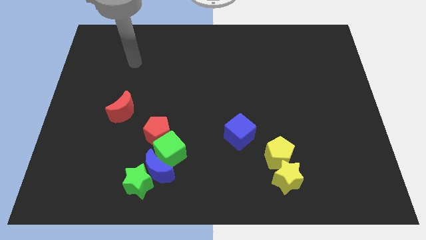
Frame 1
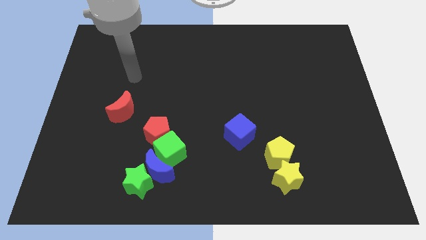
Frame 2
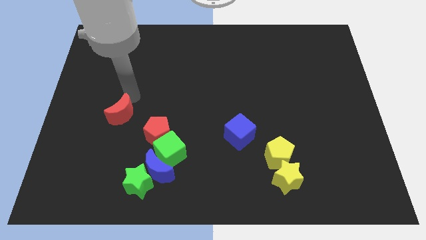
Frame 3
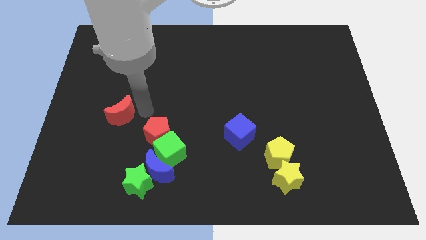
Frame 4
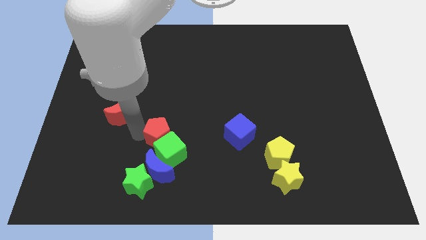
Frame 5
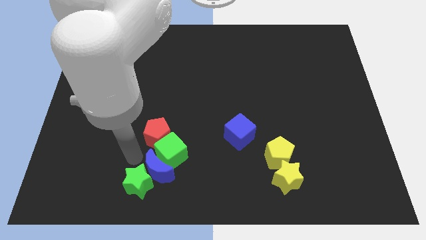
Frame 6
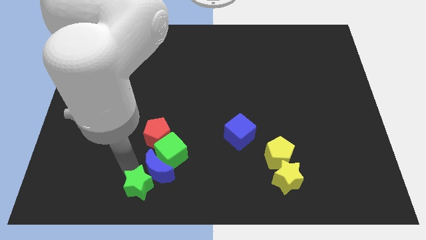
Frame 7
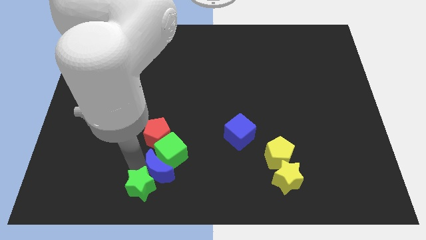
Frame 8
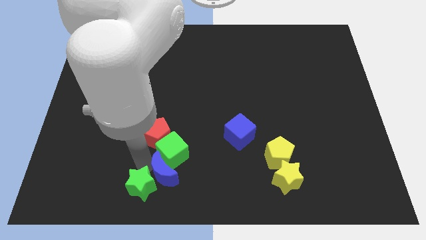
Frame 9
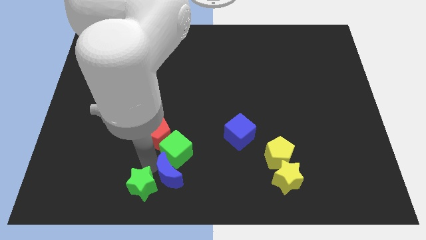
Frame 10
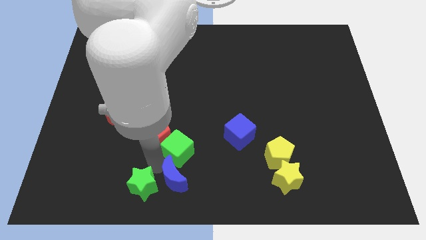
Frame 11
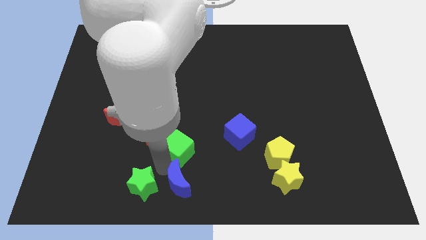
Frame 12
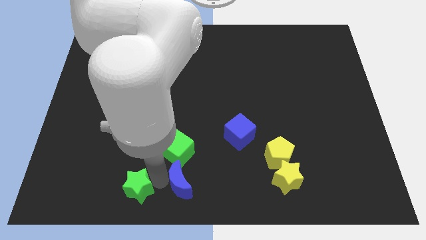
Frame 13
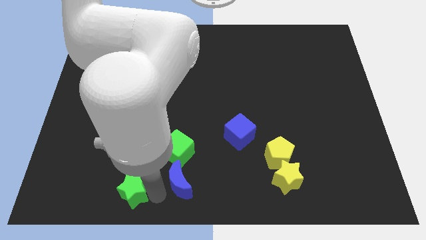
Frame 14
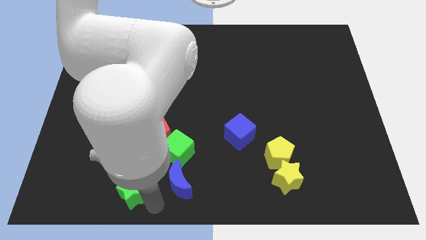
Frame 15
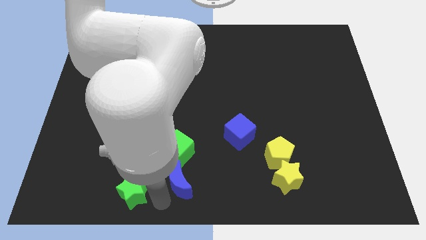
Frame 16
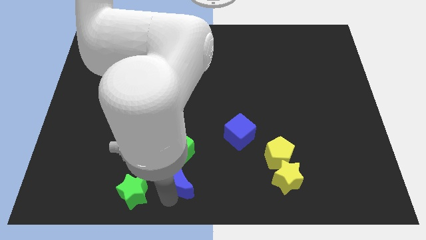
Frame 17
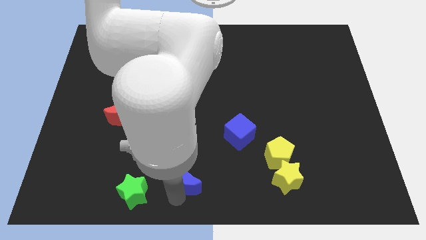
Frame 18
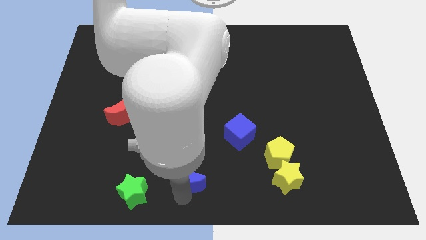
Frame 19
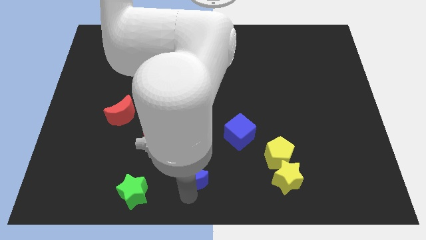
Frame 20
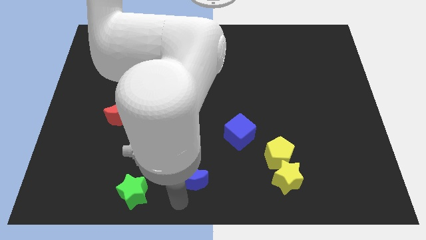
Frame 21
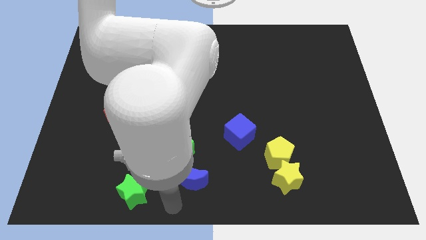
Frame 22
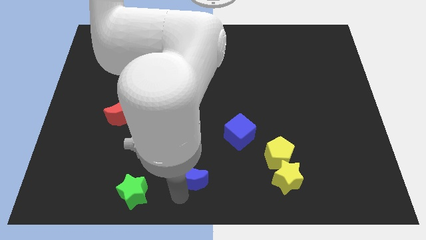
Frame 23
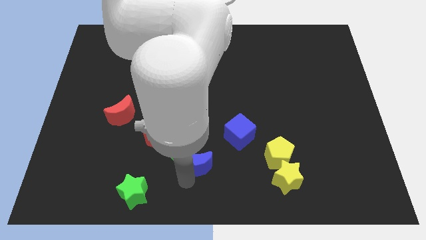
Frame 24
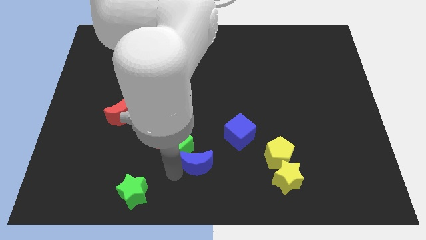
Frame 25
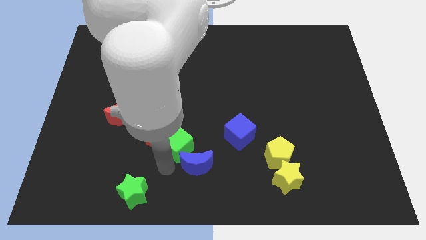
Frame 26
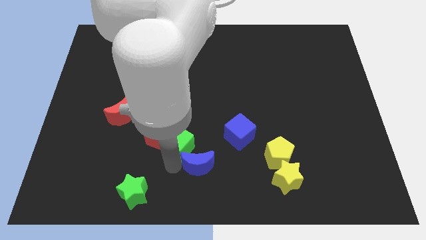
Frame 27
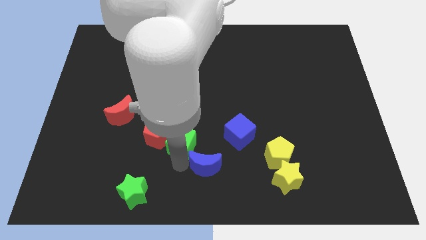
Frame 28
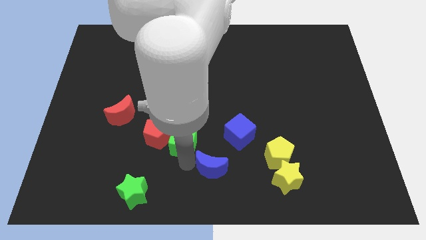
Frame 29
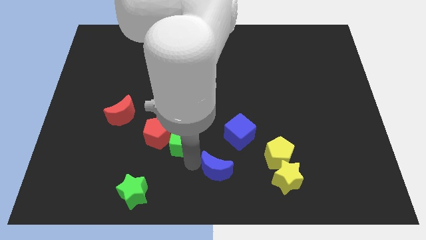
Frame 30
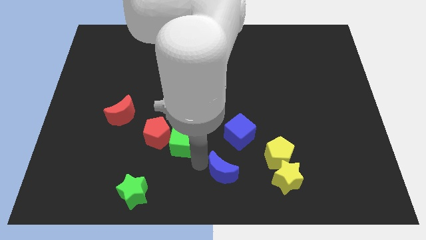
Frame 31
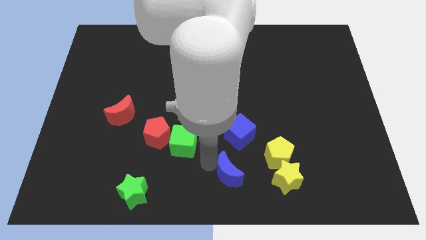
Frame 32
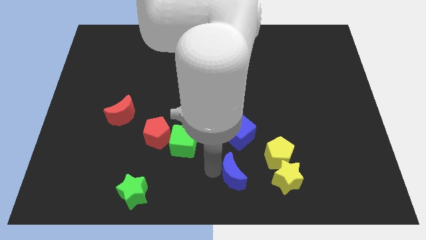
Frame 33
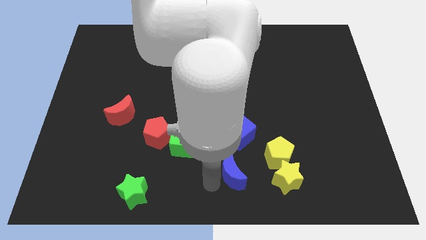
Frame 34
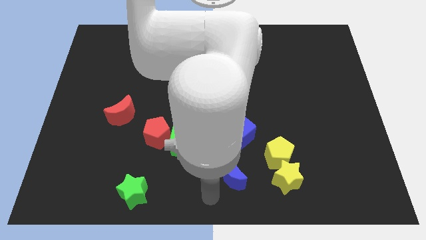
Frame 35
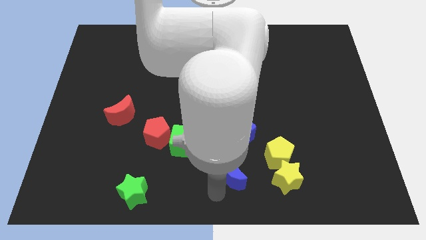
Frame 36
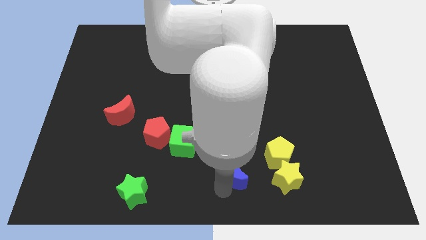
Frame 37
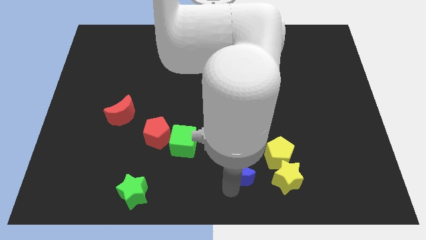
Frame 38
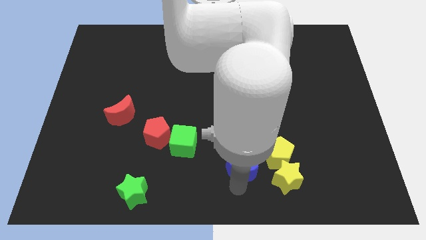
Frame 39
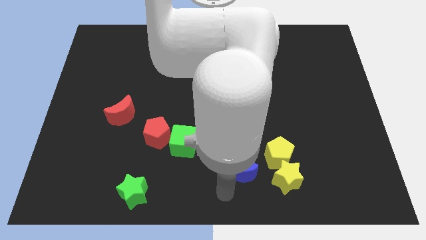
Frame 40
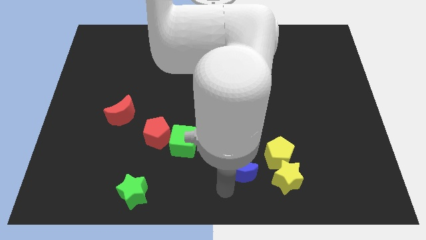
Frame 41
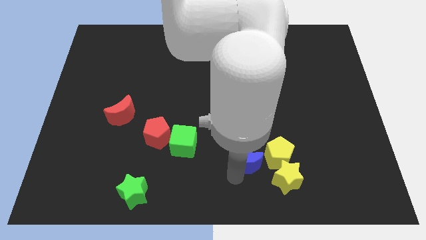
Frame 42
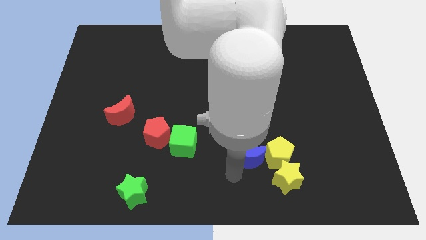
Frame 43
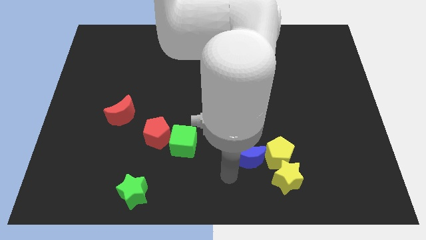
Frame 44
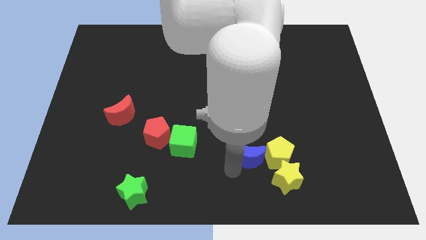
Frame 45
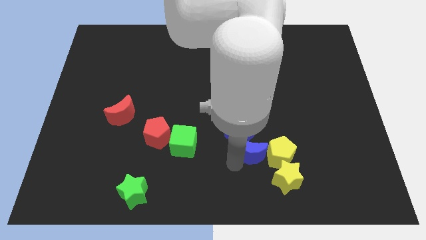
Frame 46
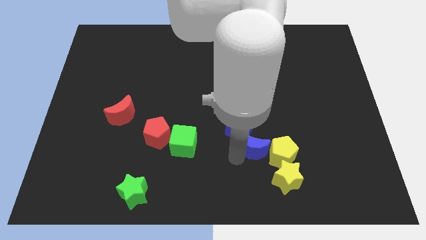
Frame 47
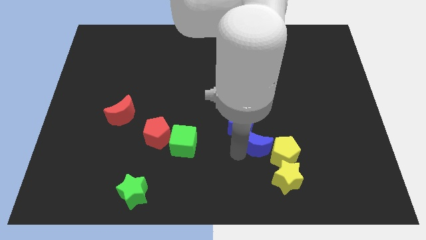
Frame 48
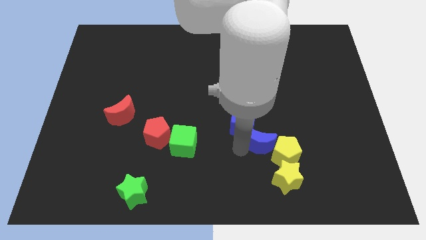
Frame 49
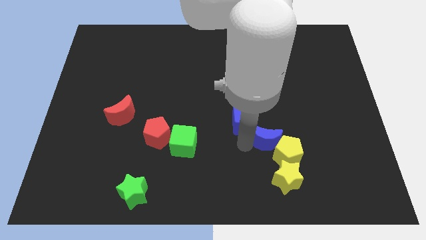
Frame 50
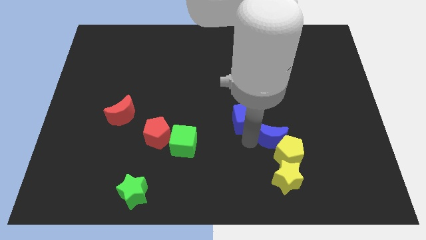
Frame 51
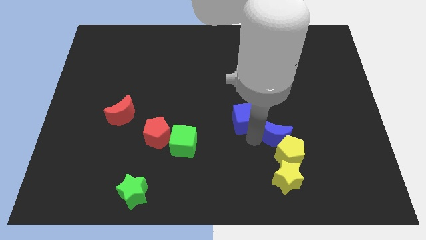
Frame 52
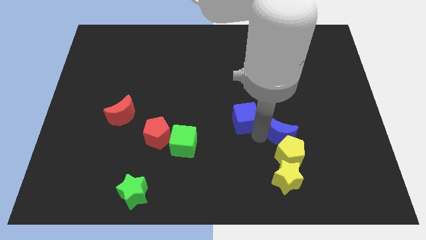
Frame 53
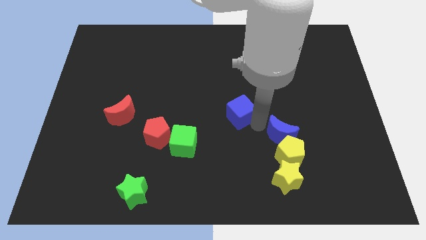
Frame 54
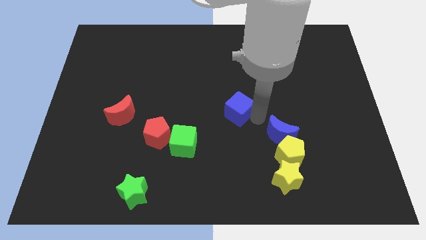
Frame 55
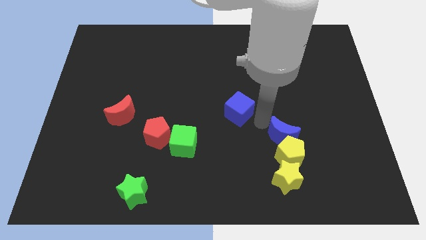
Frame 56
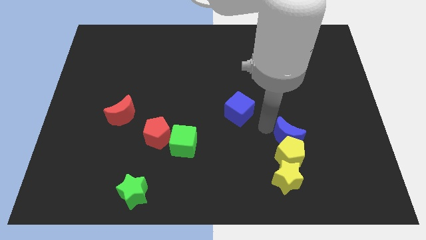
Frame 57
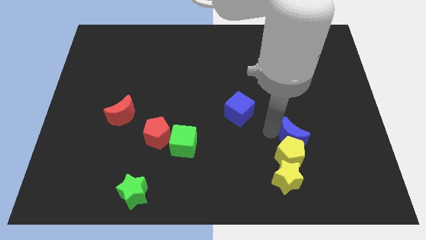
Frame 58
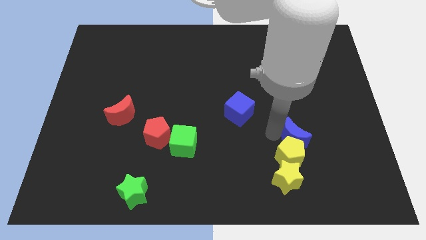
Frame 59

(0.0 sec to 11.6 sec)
slide the blue moon to the top right of the yellow star

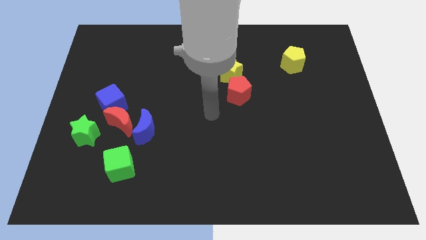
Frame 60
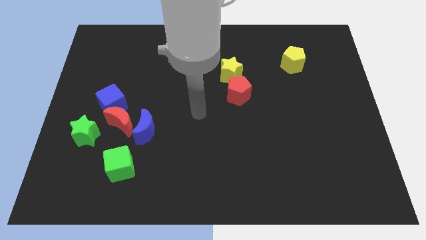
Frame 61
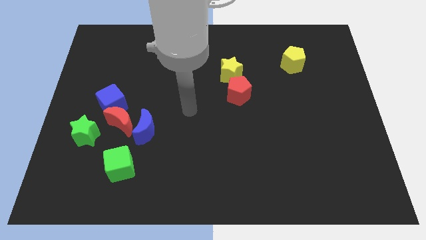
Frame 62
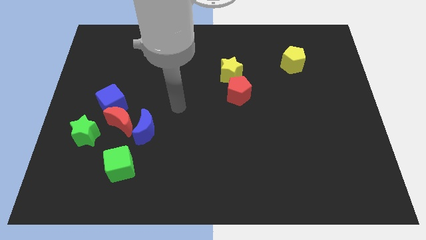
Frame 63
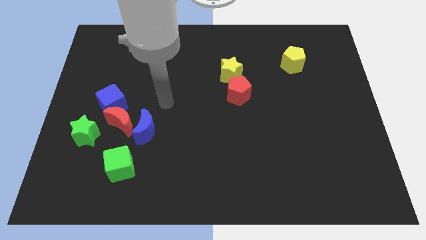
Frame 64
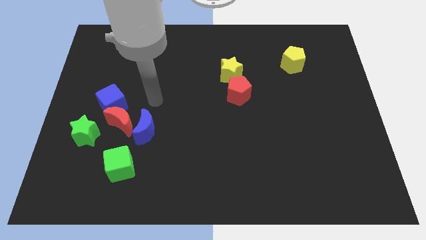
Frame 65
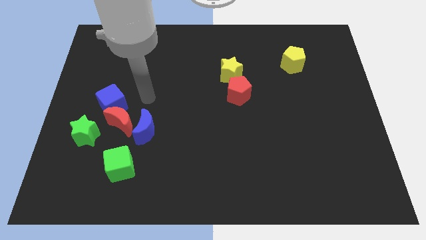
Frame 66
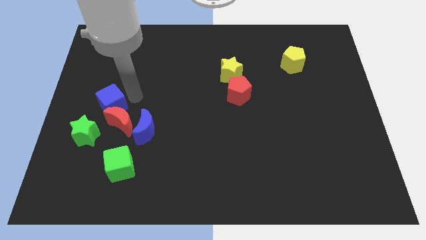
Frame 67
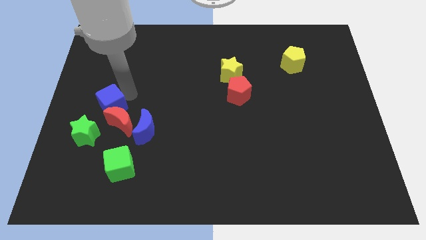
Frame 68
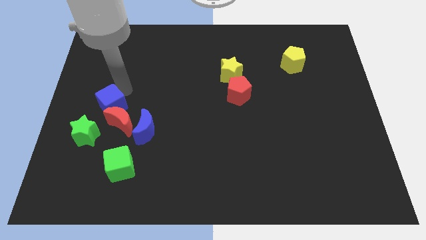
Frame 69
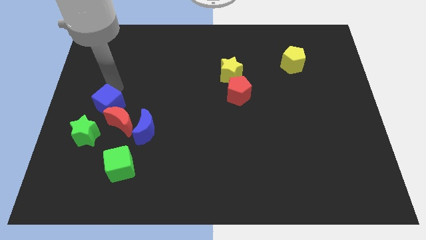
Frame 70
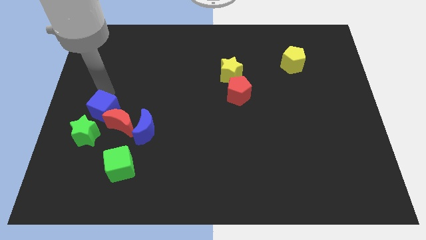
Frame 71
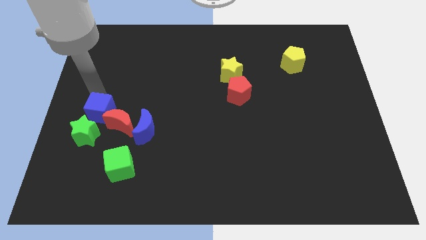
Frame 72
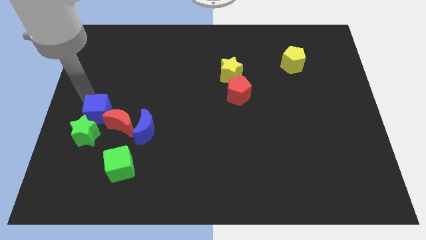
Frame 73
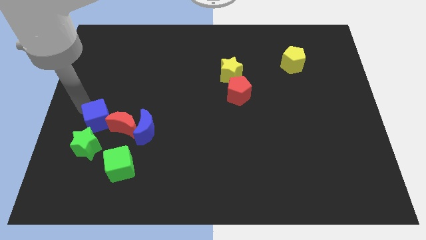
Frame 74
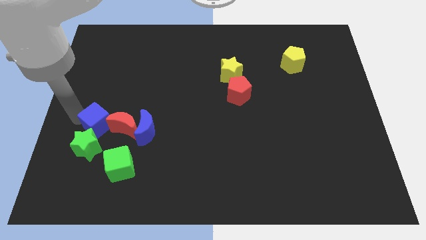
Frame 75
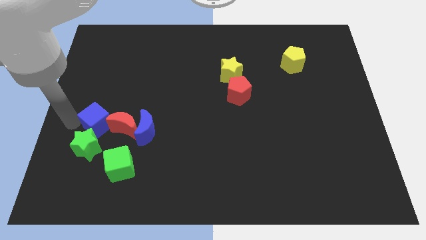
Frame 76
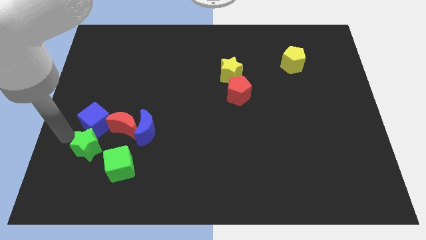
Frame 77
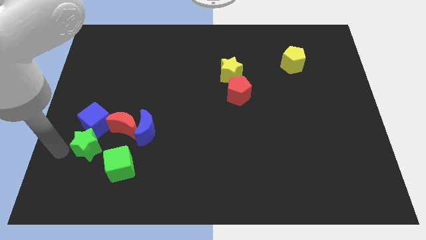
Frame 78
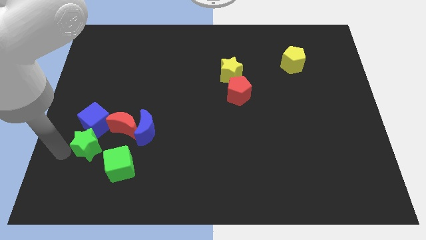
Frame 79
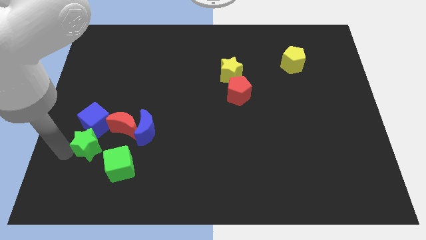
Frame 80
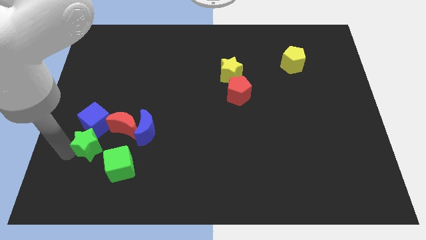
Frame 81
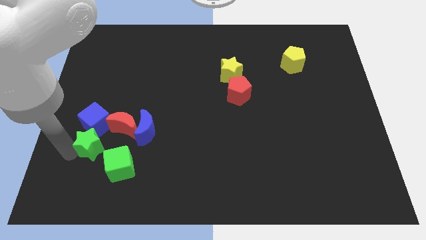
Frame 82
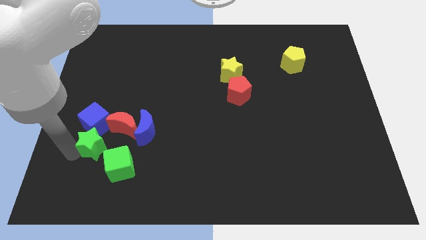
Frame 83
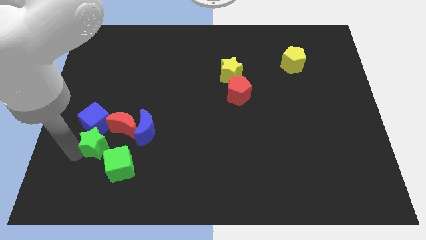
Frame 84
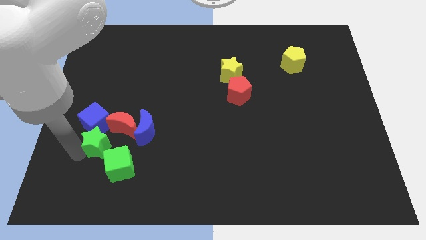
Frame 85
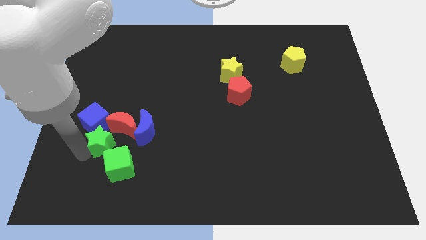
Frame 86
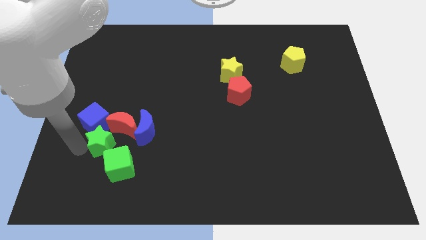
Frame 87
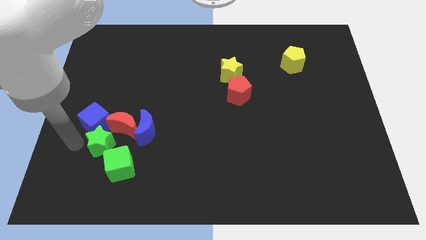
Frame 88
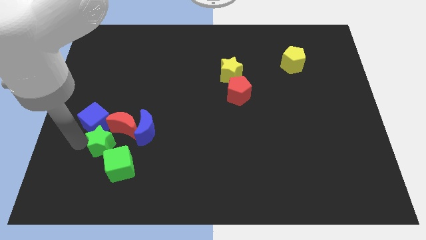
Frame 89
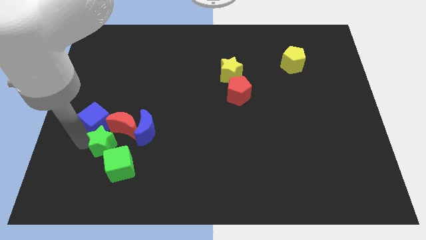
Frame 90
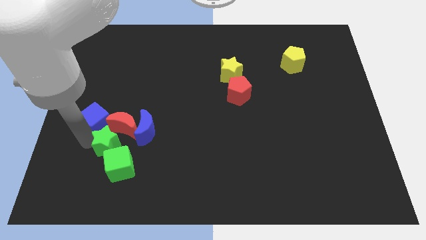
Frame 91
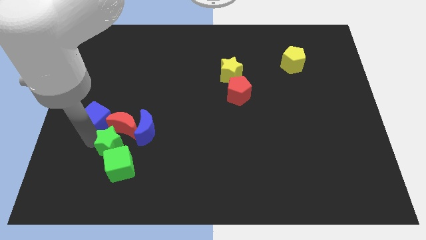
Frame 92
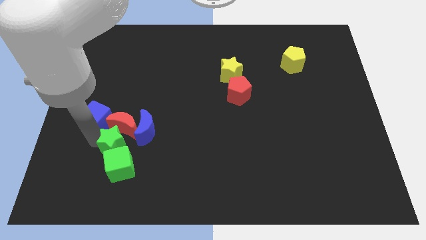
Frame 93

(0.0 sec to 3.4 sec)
move the green star to the bottom right side of the red moon
